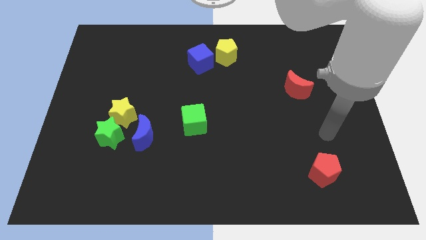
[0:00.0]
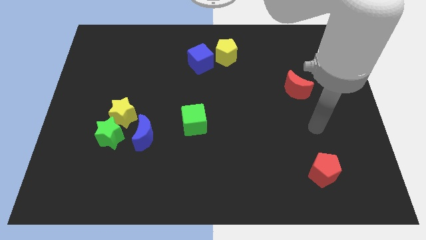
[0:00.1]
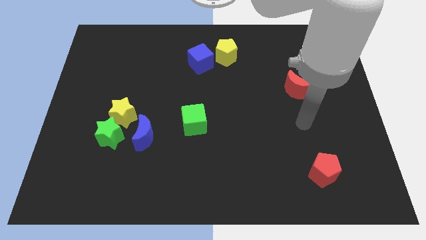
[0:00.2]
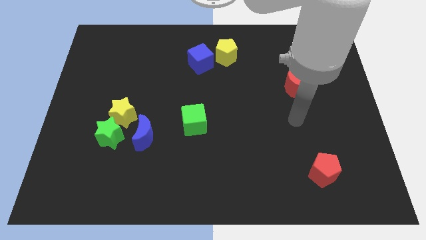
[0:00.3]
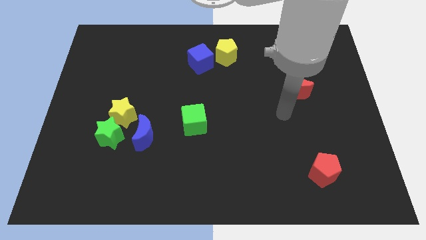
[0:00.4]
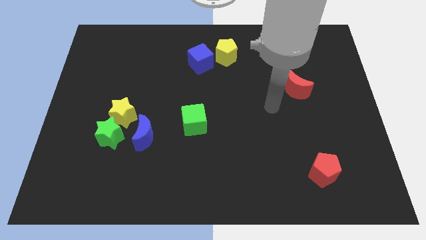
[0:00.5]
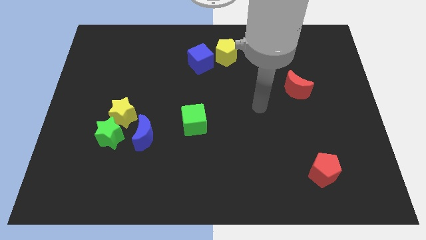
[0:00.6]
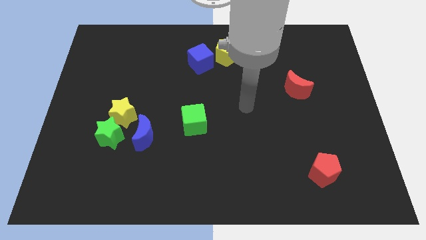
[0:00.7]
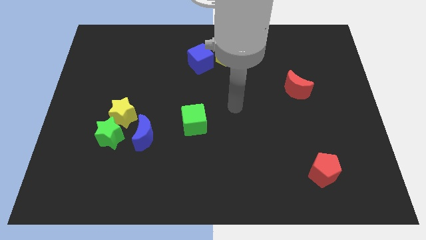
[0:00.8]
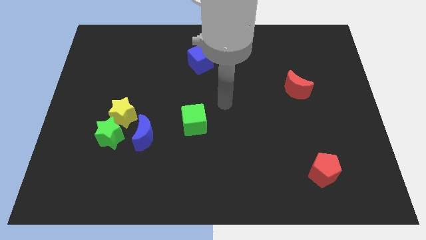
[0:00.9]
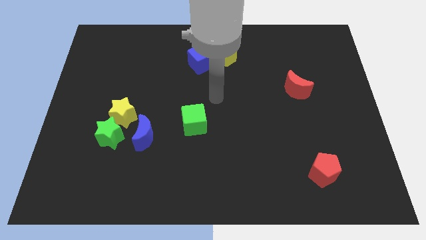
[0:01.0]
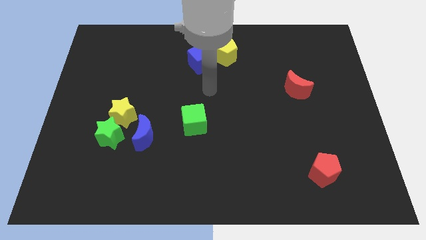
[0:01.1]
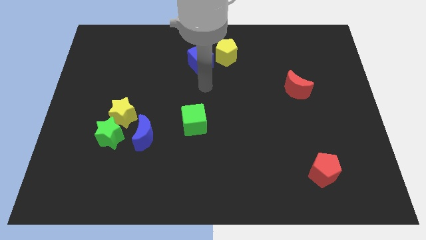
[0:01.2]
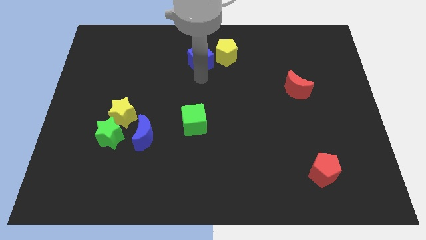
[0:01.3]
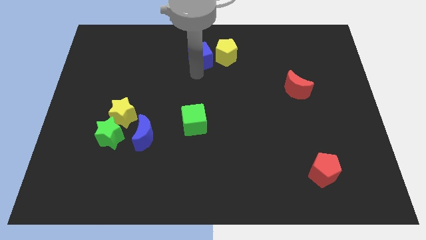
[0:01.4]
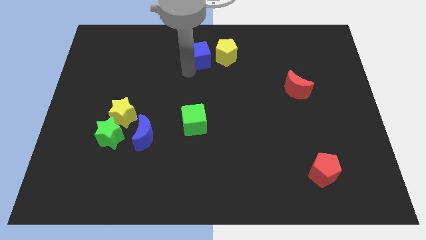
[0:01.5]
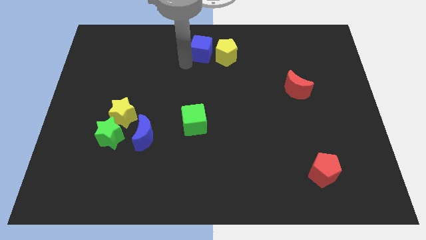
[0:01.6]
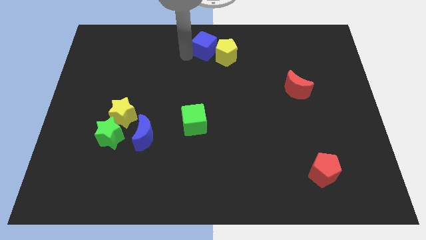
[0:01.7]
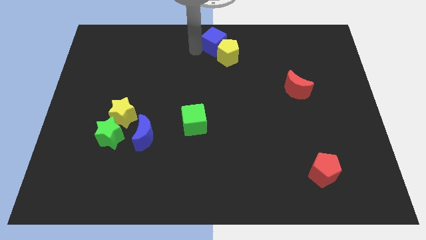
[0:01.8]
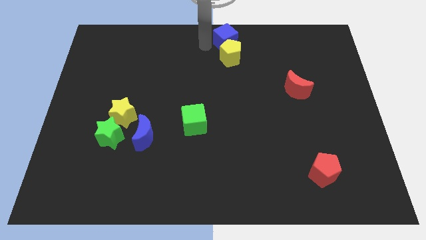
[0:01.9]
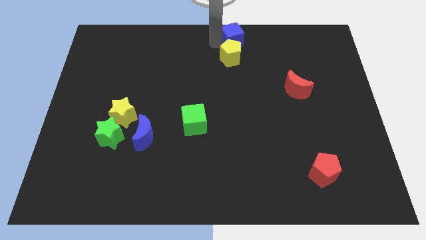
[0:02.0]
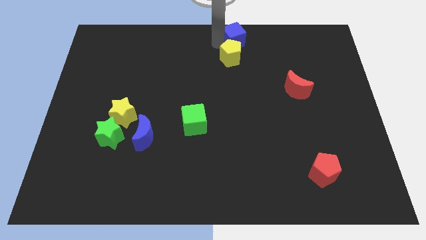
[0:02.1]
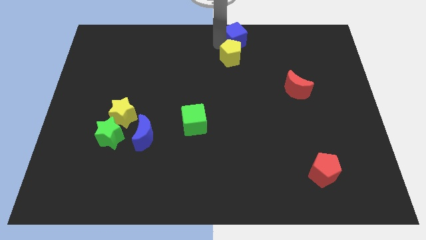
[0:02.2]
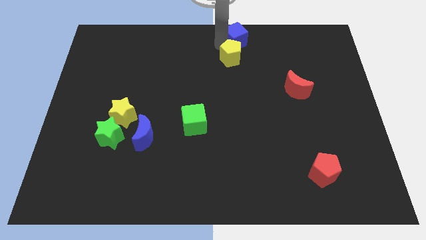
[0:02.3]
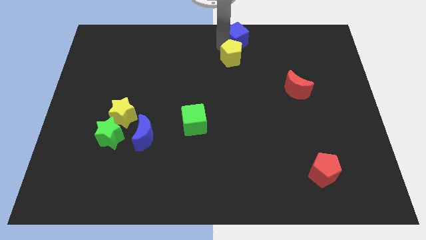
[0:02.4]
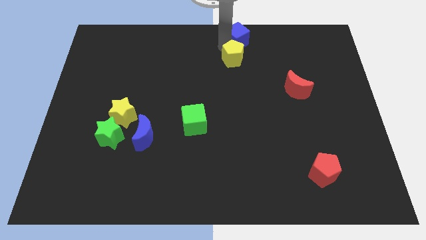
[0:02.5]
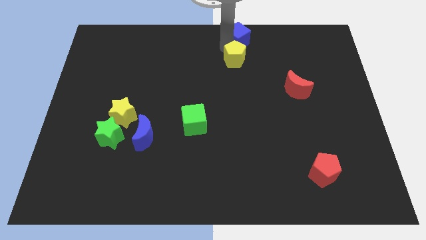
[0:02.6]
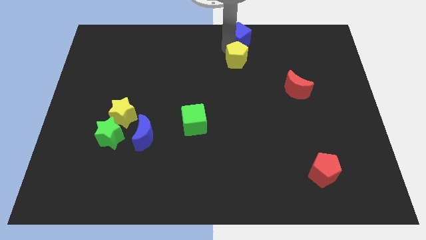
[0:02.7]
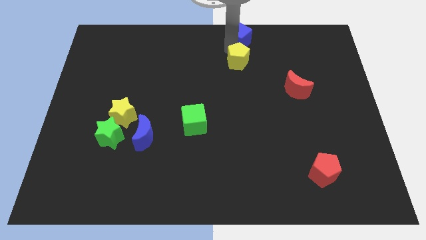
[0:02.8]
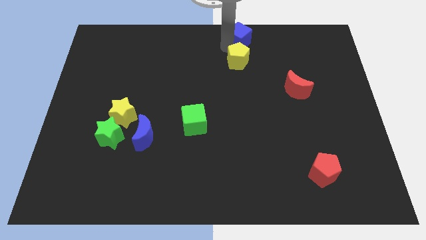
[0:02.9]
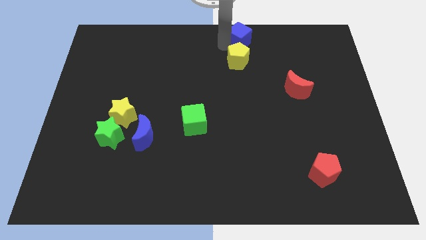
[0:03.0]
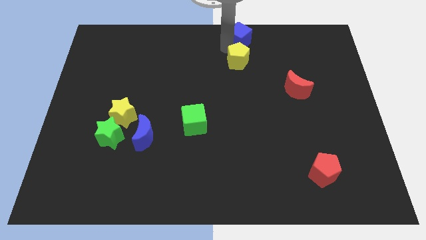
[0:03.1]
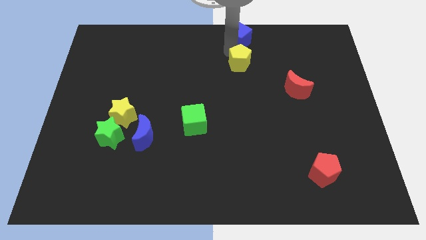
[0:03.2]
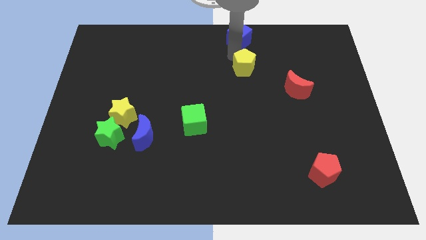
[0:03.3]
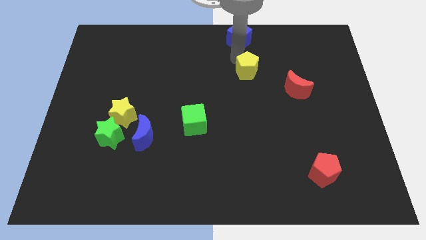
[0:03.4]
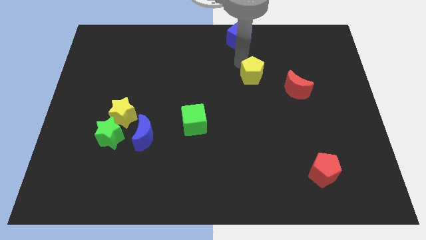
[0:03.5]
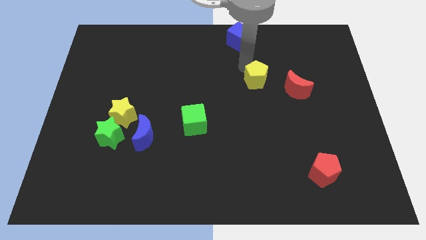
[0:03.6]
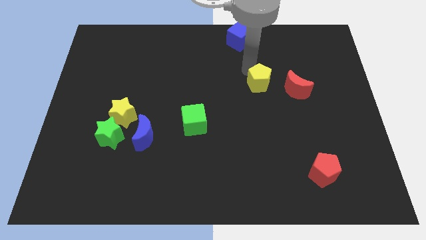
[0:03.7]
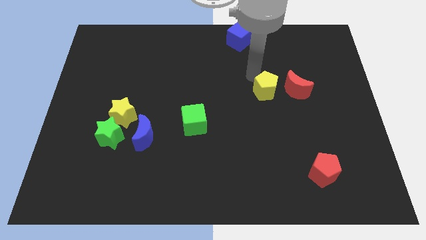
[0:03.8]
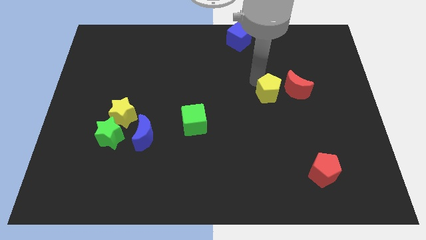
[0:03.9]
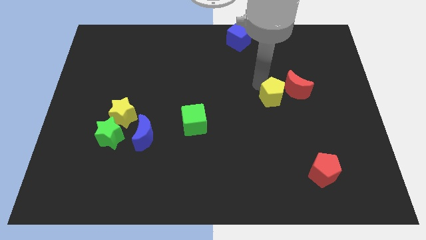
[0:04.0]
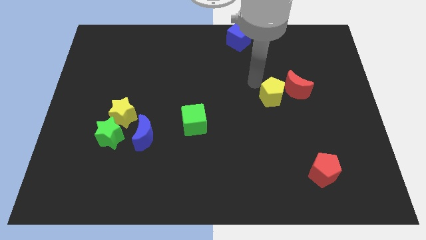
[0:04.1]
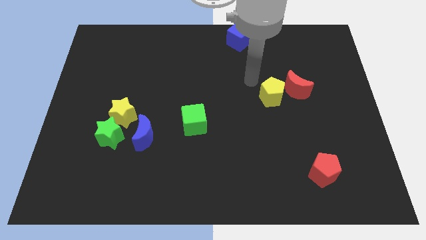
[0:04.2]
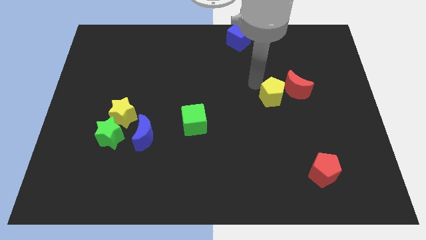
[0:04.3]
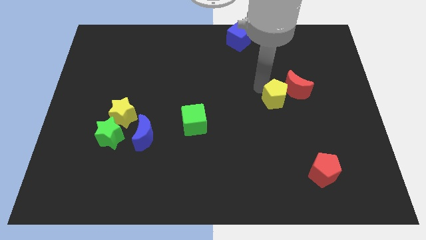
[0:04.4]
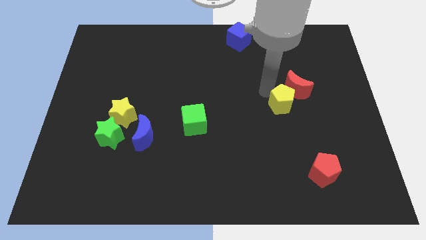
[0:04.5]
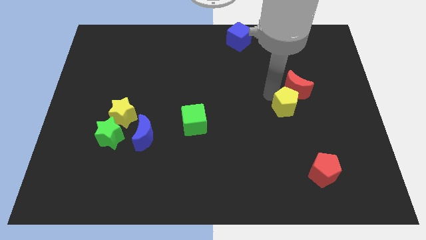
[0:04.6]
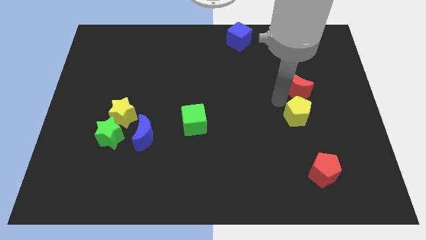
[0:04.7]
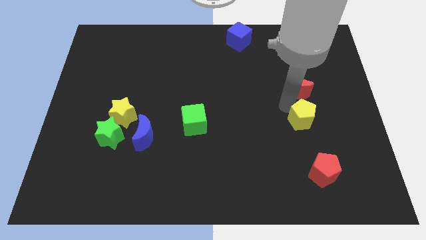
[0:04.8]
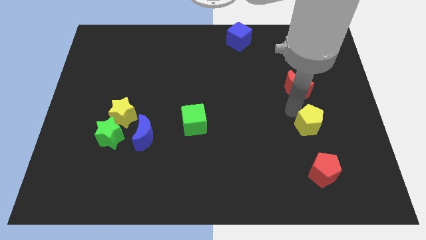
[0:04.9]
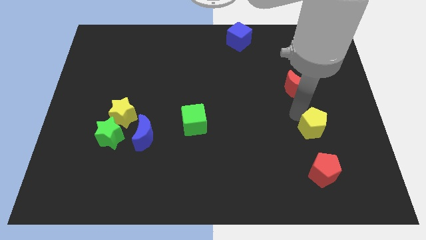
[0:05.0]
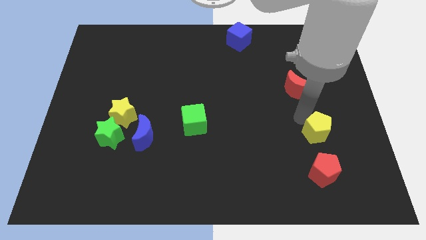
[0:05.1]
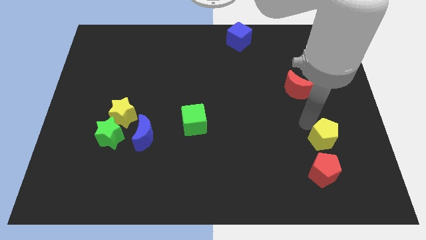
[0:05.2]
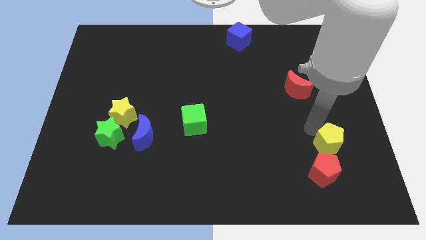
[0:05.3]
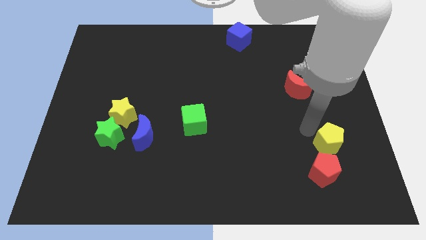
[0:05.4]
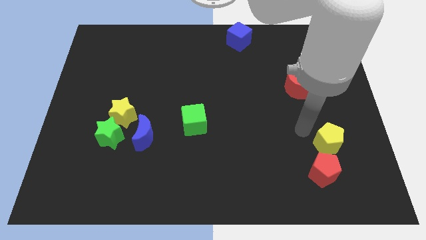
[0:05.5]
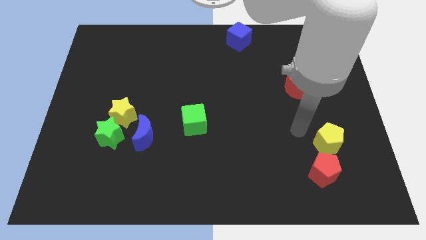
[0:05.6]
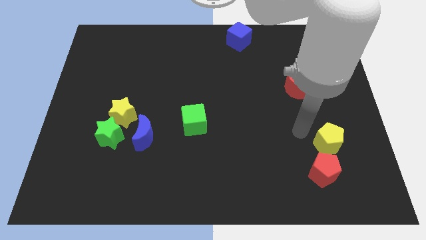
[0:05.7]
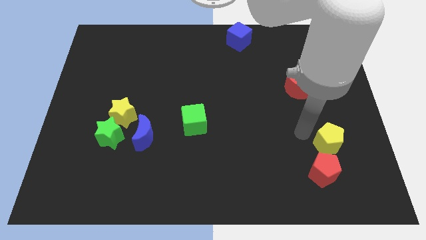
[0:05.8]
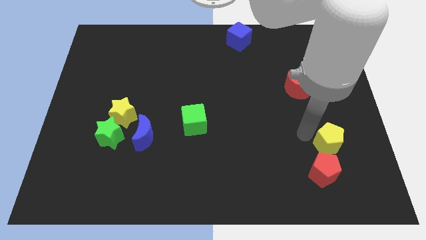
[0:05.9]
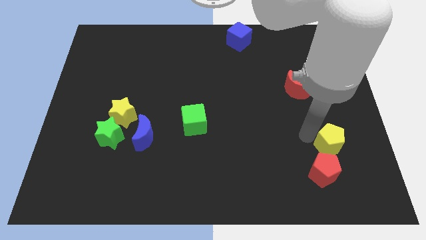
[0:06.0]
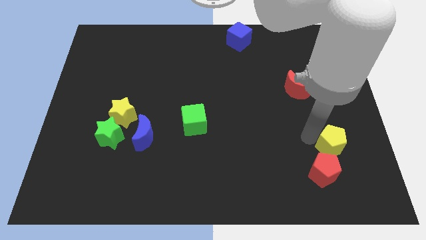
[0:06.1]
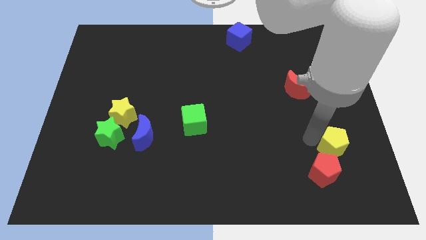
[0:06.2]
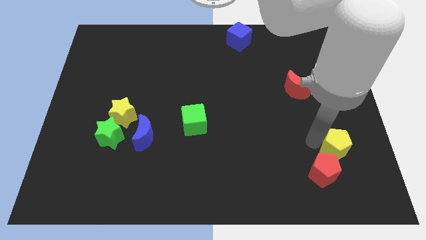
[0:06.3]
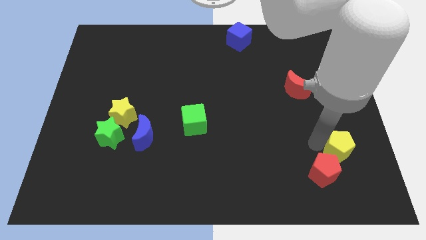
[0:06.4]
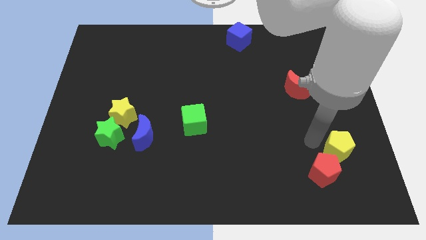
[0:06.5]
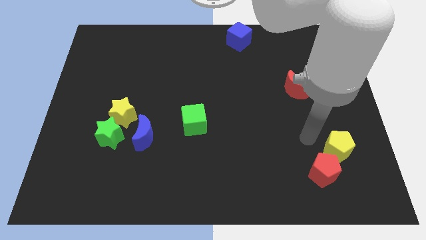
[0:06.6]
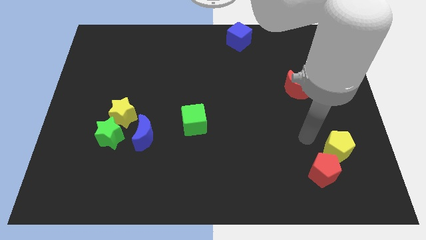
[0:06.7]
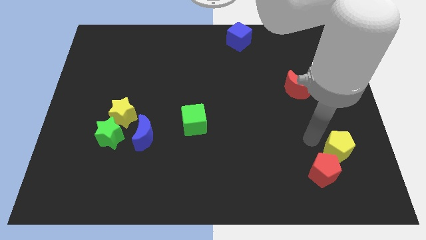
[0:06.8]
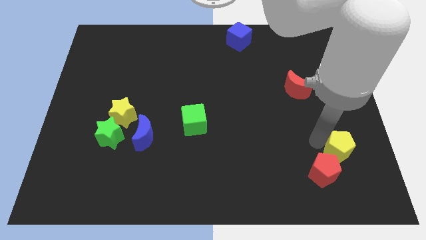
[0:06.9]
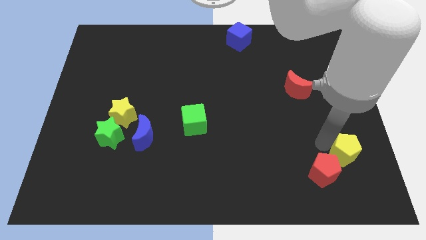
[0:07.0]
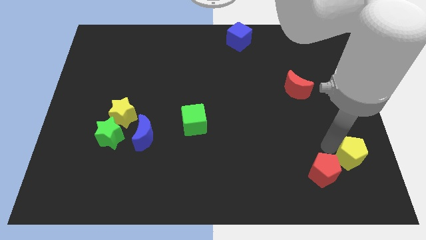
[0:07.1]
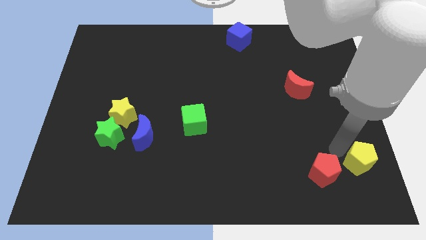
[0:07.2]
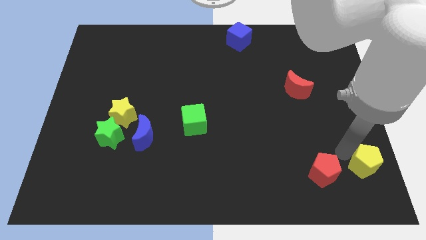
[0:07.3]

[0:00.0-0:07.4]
push the yellow pentagon to the bottom right of the board

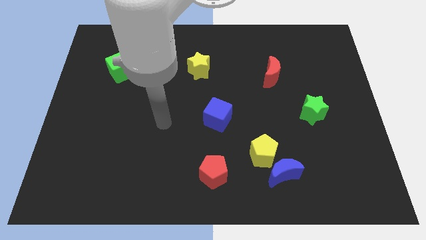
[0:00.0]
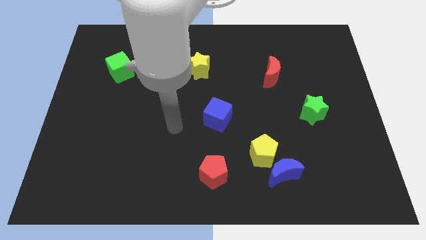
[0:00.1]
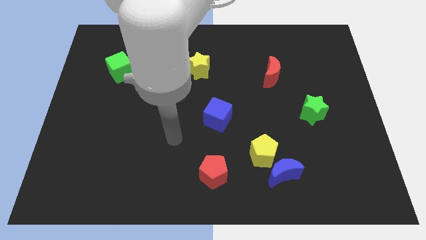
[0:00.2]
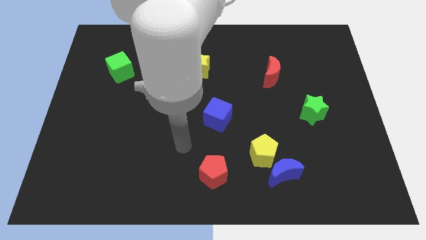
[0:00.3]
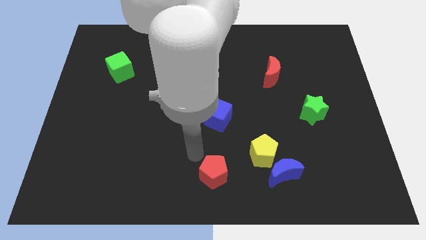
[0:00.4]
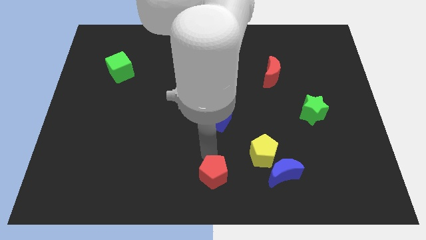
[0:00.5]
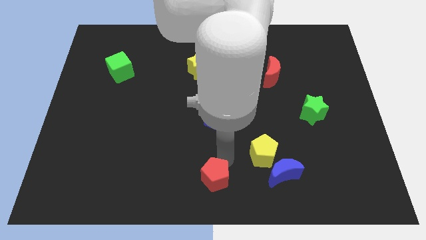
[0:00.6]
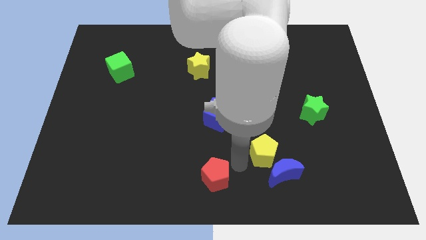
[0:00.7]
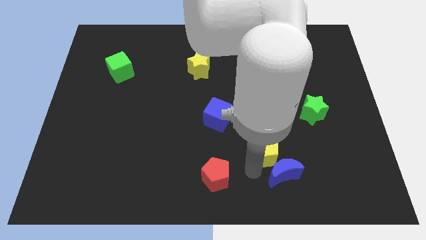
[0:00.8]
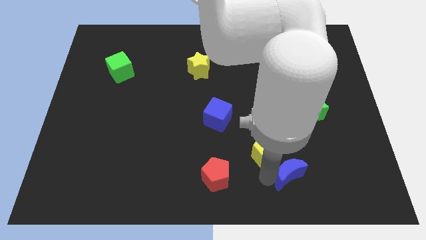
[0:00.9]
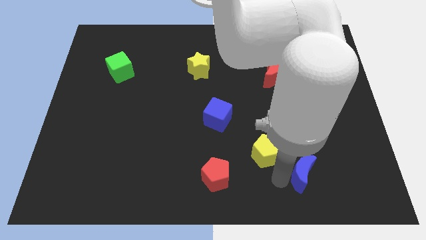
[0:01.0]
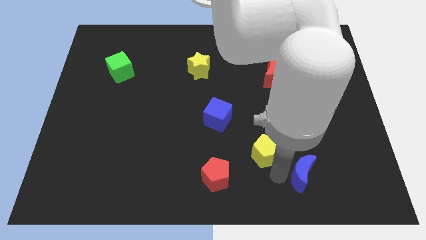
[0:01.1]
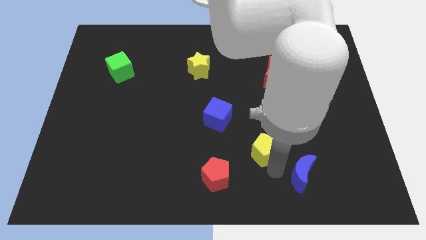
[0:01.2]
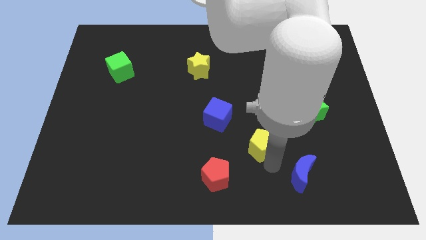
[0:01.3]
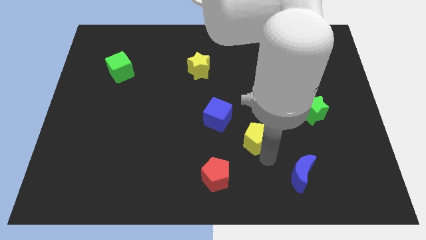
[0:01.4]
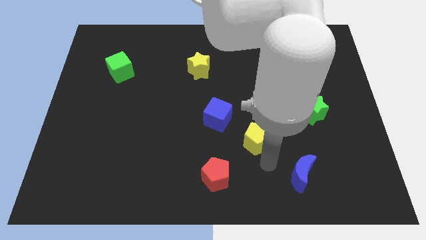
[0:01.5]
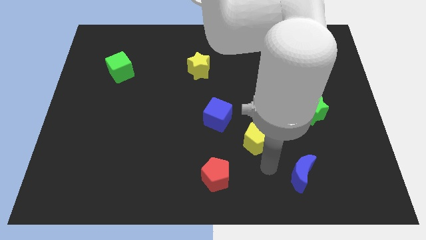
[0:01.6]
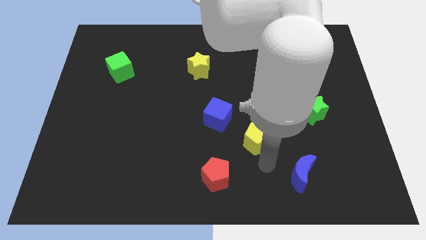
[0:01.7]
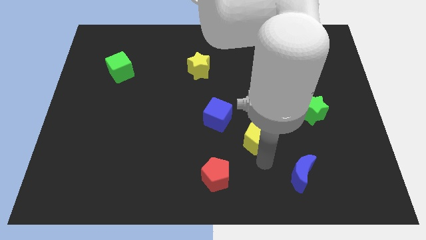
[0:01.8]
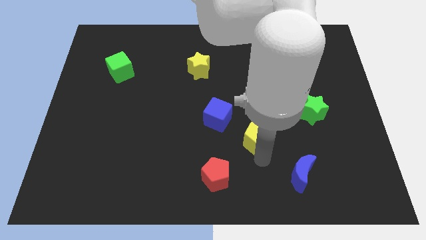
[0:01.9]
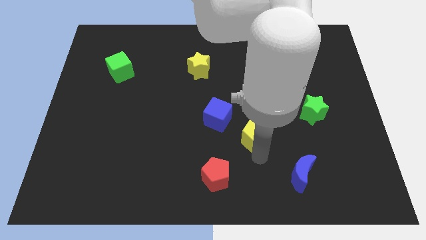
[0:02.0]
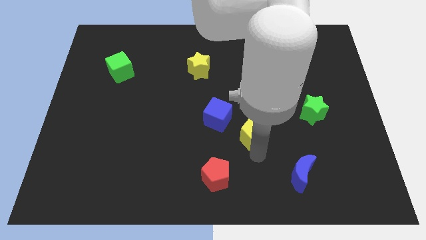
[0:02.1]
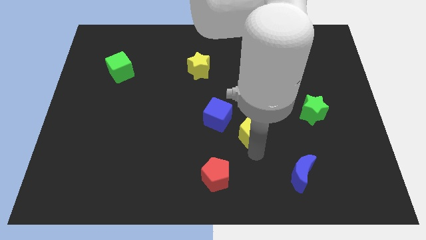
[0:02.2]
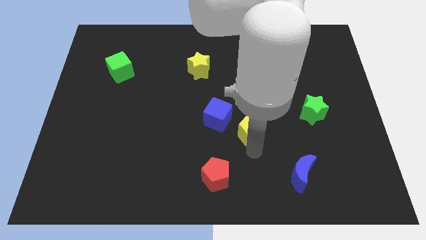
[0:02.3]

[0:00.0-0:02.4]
push the yellow pentagon to the middle of the board
